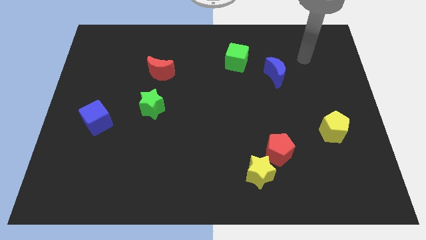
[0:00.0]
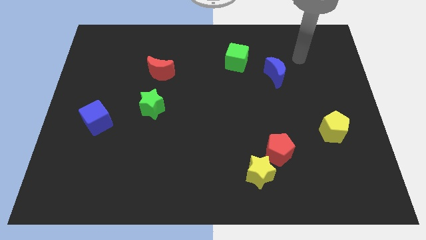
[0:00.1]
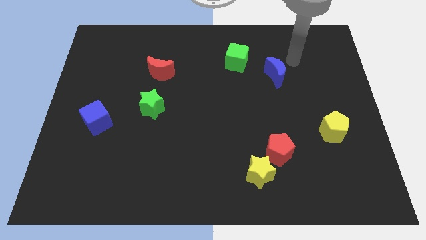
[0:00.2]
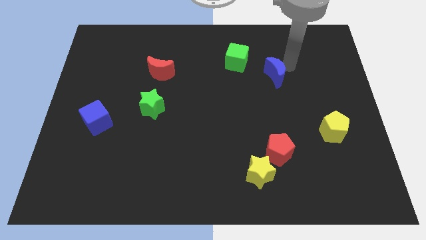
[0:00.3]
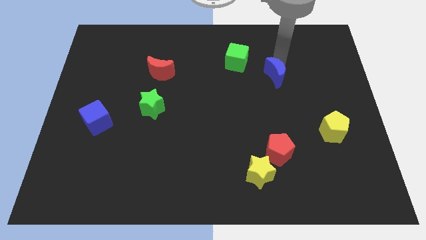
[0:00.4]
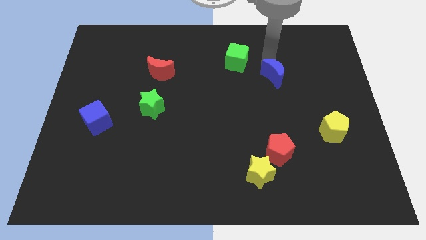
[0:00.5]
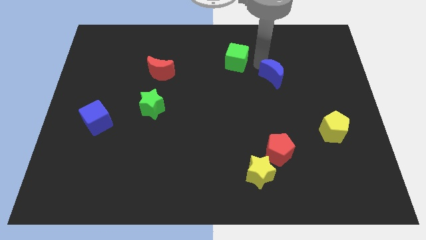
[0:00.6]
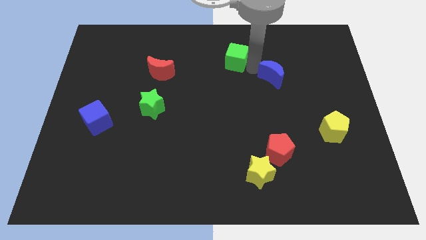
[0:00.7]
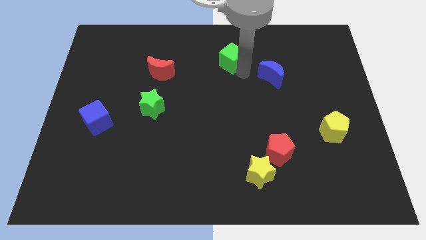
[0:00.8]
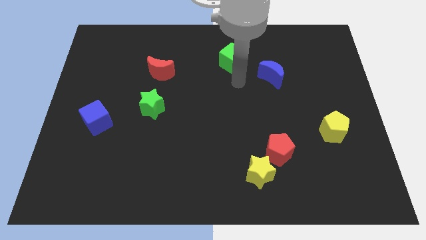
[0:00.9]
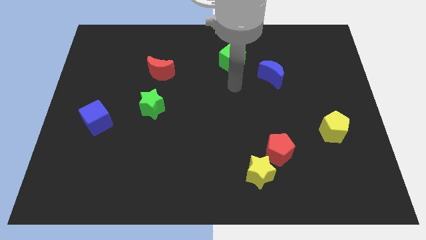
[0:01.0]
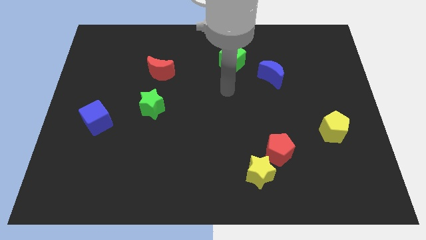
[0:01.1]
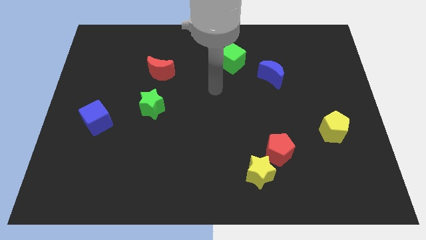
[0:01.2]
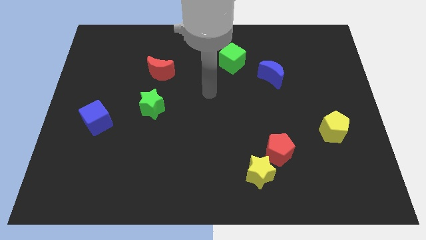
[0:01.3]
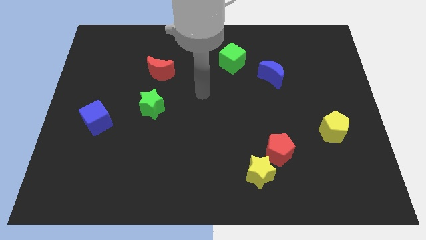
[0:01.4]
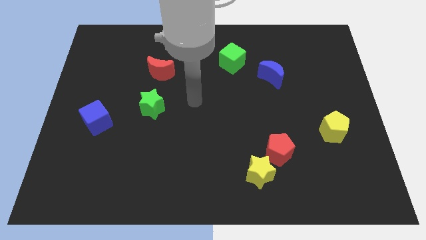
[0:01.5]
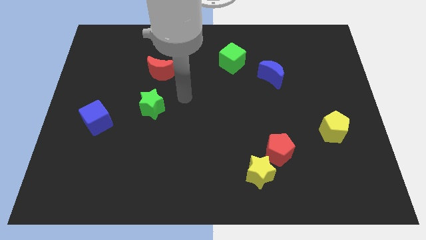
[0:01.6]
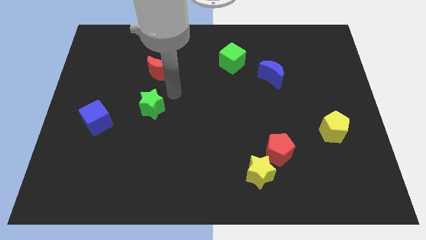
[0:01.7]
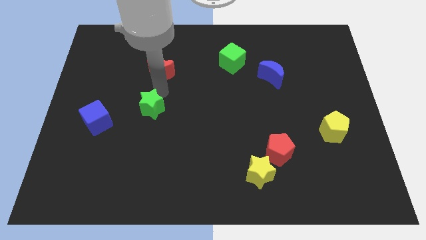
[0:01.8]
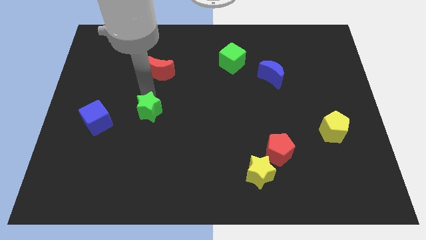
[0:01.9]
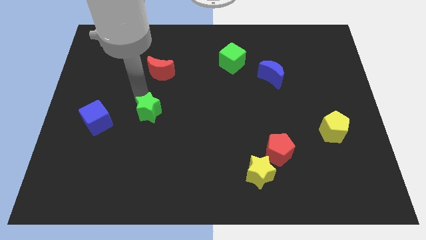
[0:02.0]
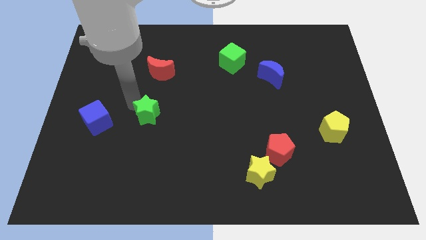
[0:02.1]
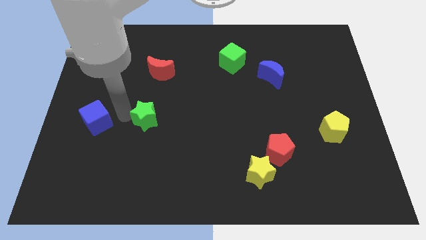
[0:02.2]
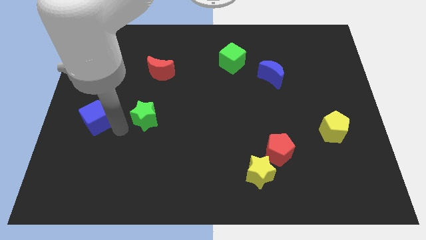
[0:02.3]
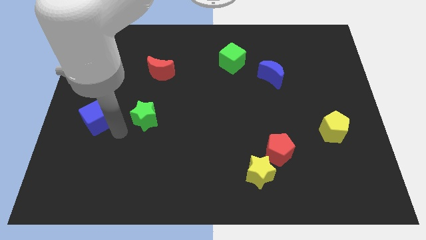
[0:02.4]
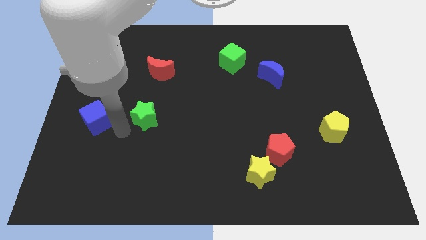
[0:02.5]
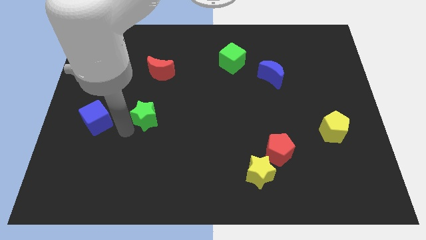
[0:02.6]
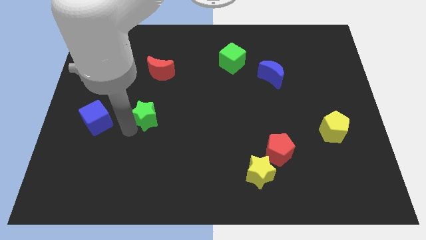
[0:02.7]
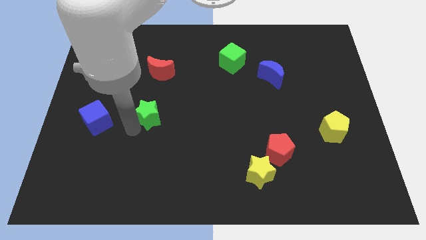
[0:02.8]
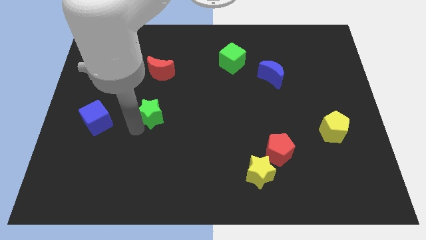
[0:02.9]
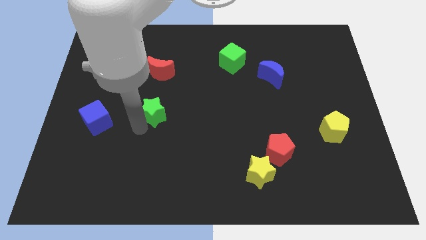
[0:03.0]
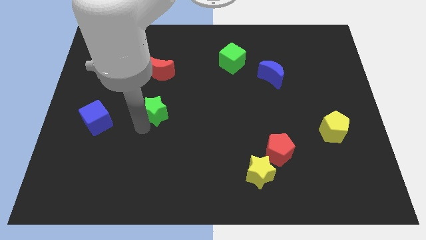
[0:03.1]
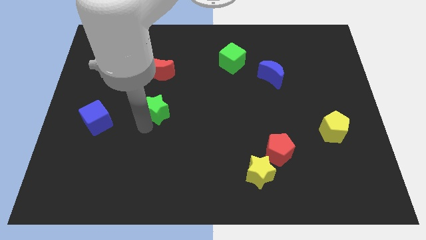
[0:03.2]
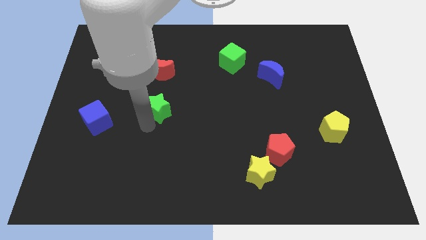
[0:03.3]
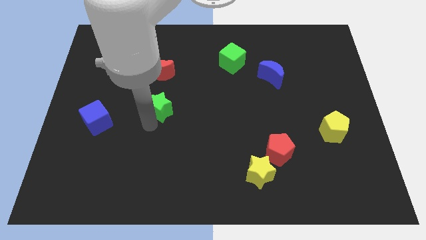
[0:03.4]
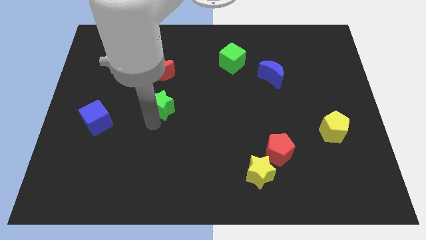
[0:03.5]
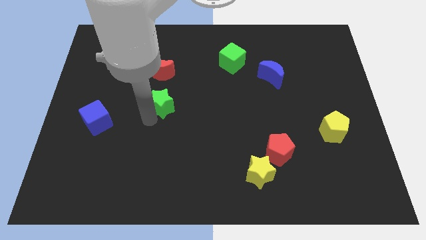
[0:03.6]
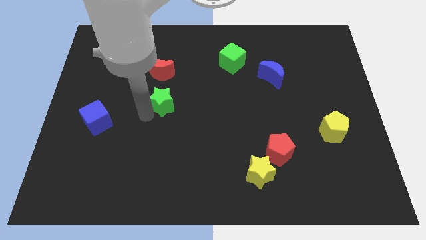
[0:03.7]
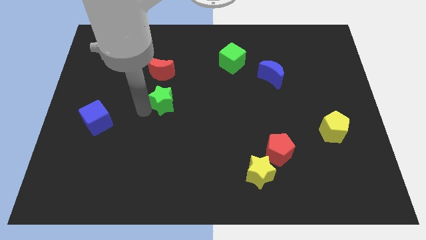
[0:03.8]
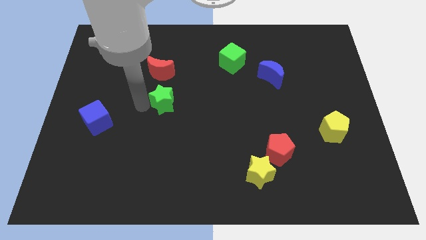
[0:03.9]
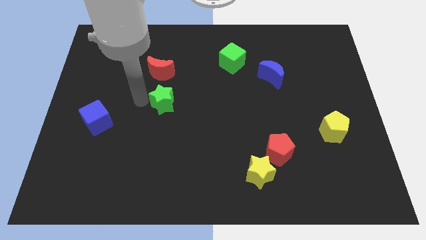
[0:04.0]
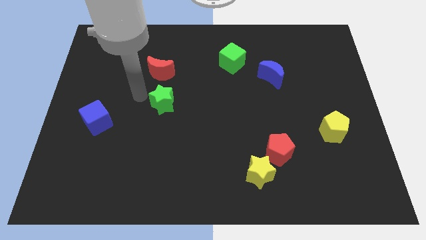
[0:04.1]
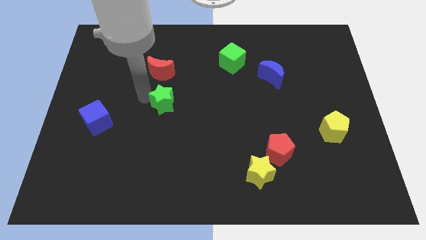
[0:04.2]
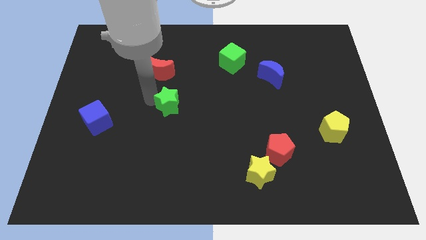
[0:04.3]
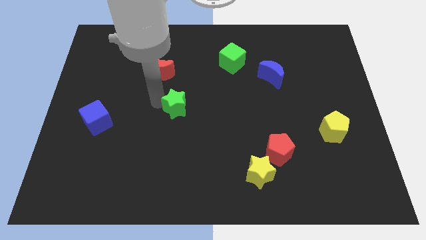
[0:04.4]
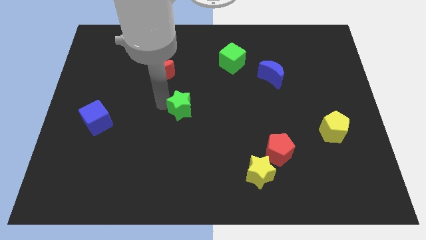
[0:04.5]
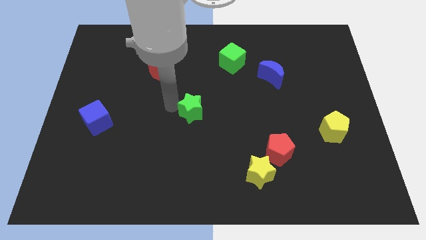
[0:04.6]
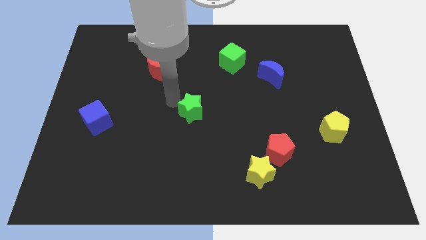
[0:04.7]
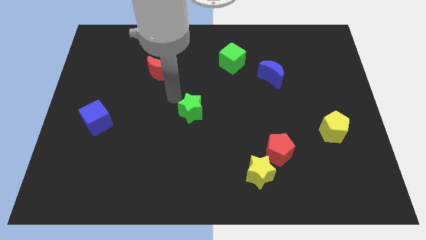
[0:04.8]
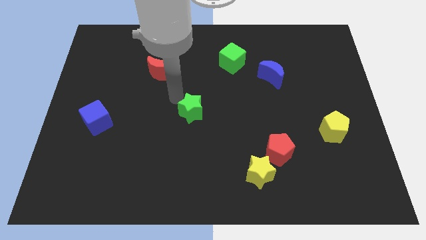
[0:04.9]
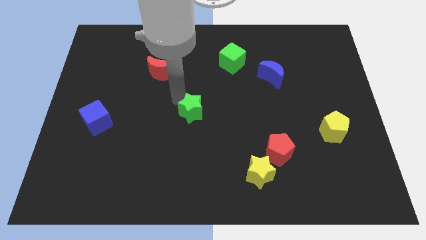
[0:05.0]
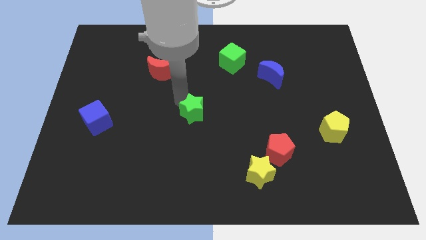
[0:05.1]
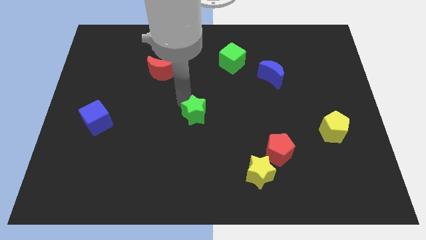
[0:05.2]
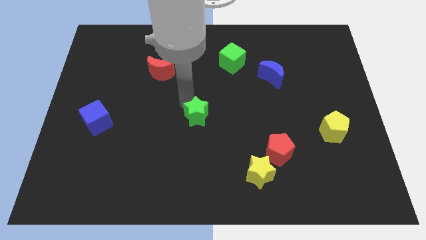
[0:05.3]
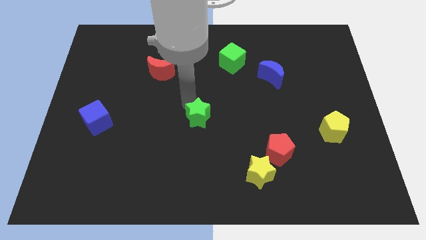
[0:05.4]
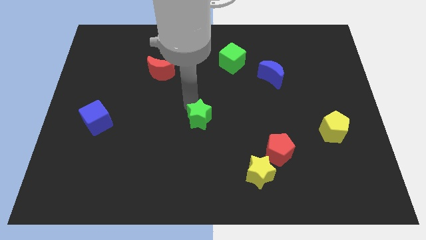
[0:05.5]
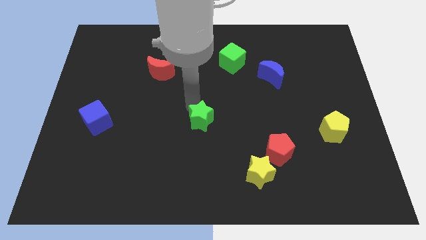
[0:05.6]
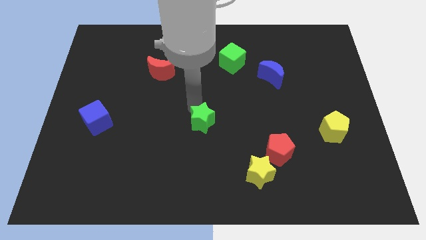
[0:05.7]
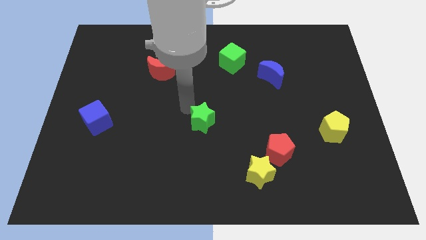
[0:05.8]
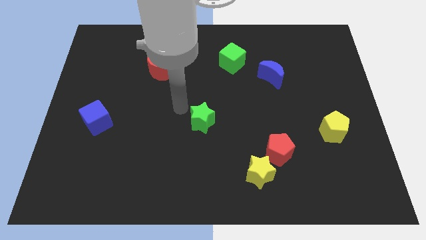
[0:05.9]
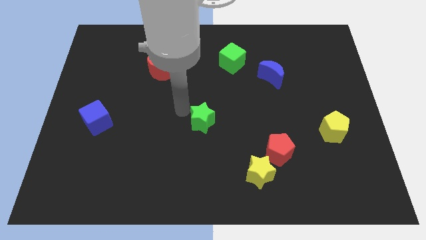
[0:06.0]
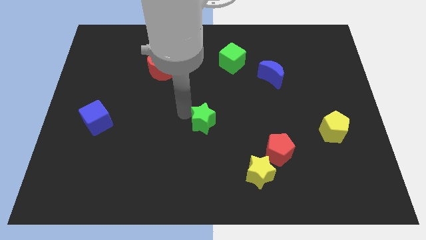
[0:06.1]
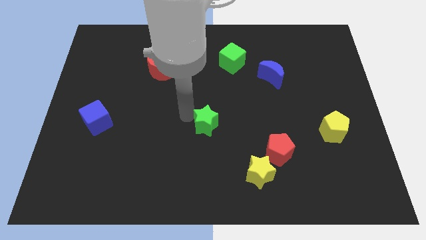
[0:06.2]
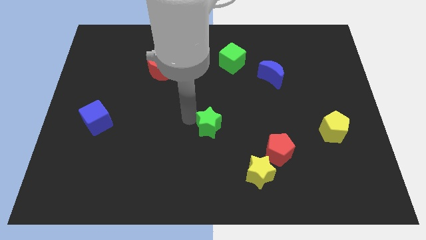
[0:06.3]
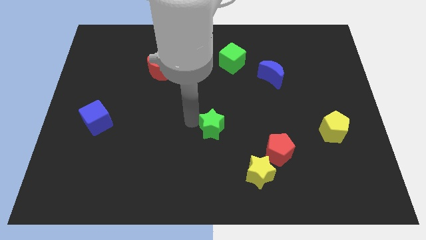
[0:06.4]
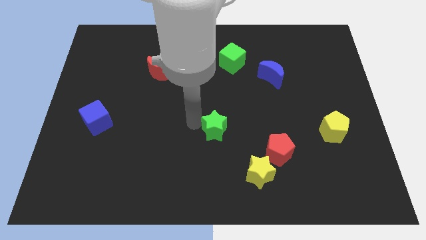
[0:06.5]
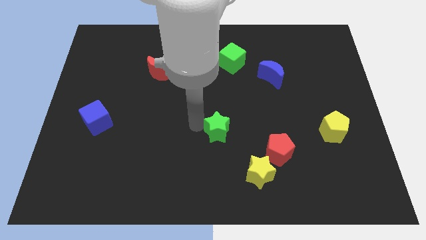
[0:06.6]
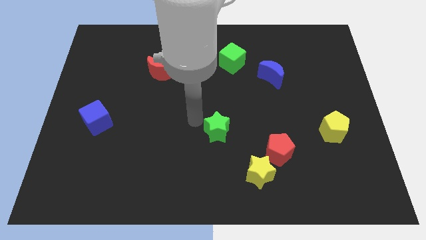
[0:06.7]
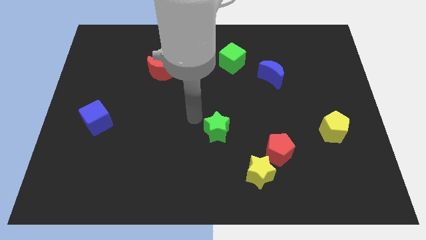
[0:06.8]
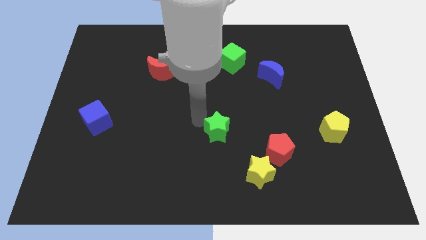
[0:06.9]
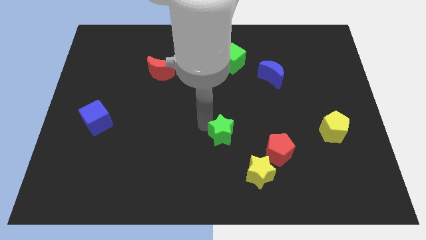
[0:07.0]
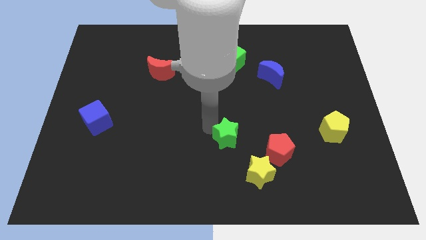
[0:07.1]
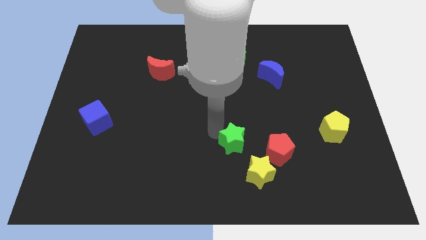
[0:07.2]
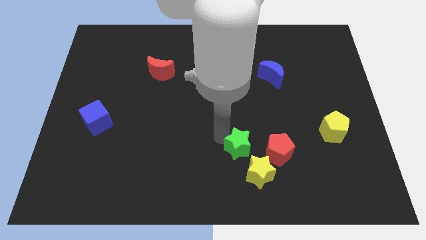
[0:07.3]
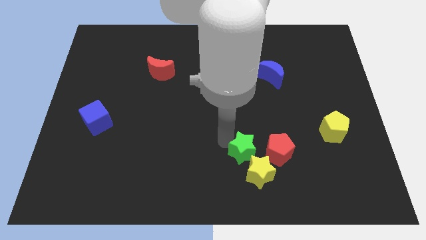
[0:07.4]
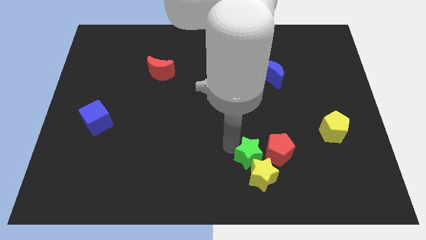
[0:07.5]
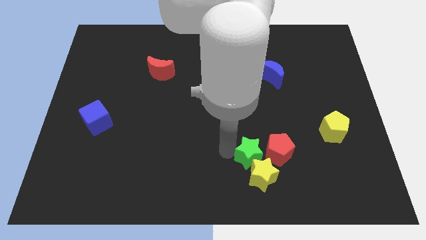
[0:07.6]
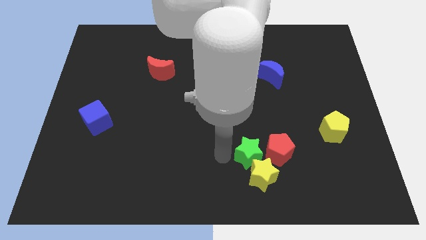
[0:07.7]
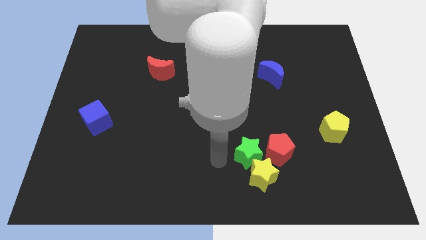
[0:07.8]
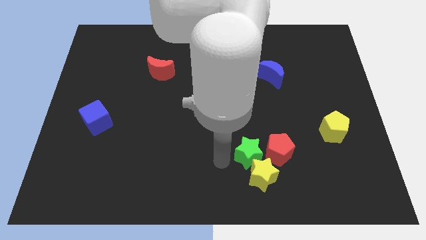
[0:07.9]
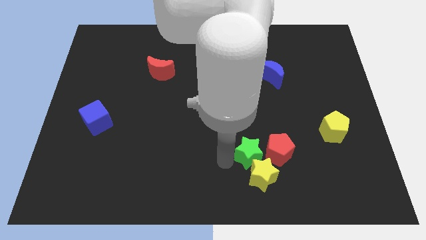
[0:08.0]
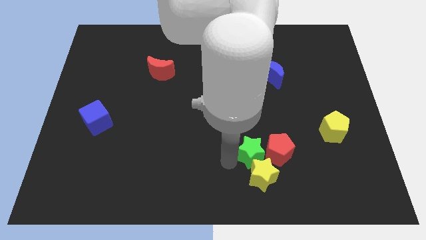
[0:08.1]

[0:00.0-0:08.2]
push the green star next to the red pentagon
